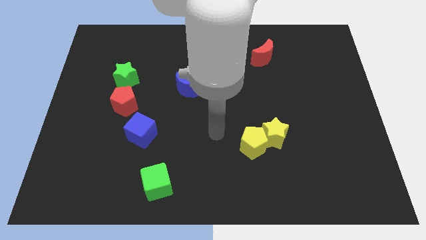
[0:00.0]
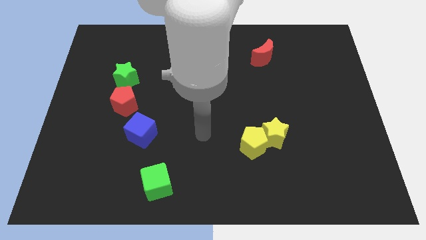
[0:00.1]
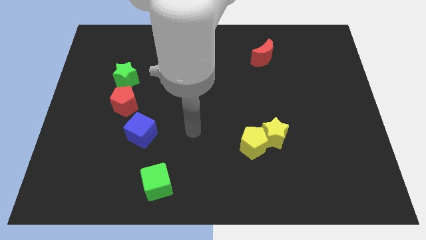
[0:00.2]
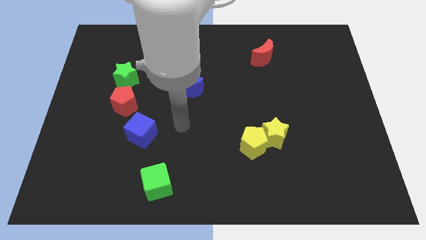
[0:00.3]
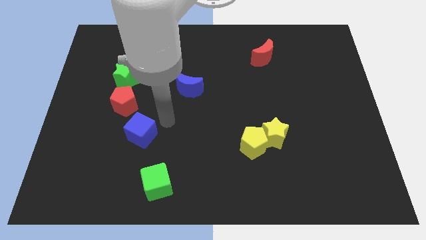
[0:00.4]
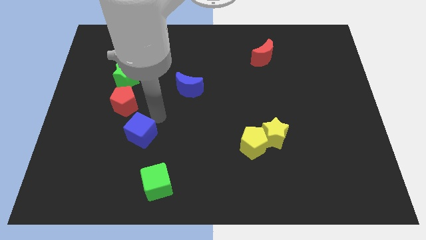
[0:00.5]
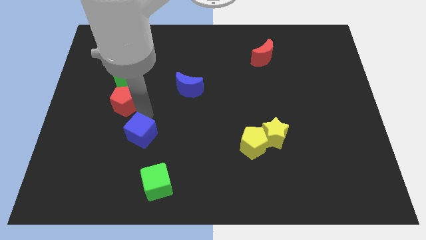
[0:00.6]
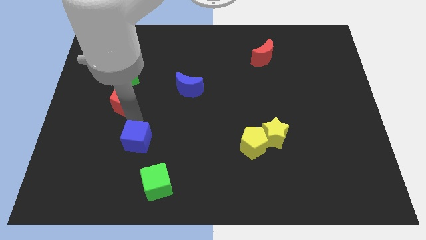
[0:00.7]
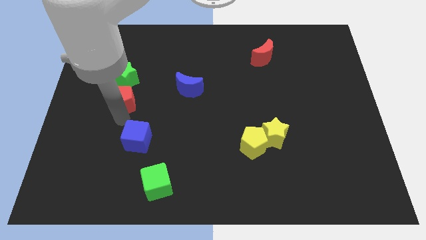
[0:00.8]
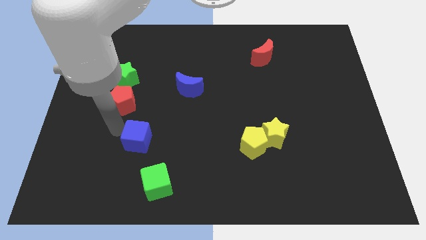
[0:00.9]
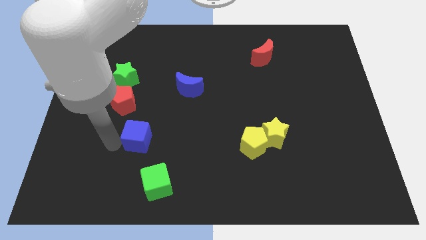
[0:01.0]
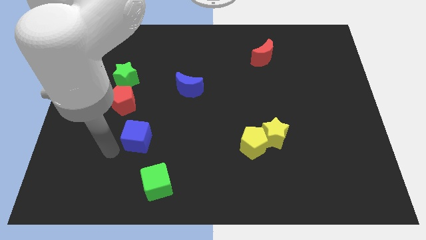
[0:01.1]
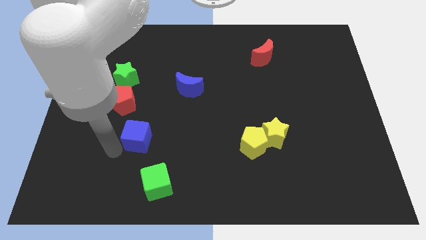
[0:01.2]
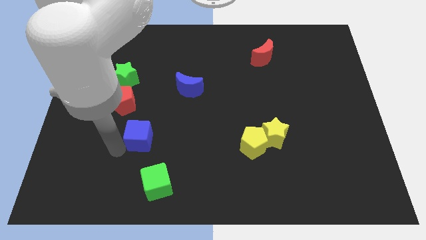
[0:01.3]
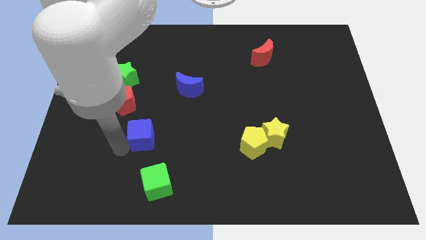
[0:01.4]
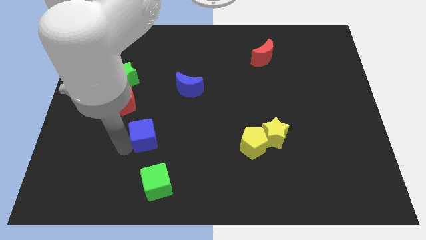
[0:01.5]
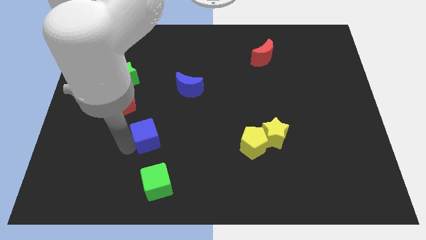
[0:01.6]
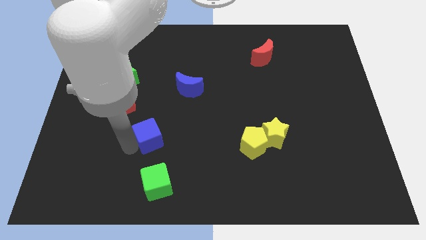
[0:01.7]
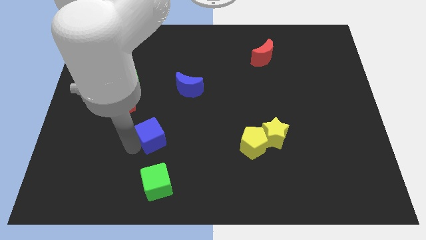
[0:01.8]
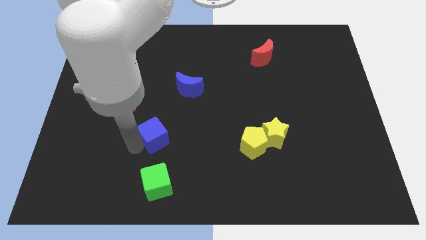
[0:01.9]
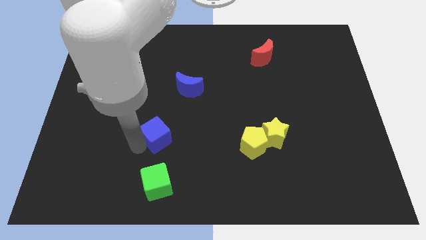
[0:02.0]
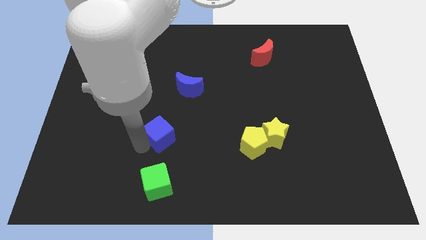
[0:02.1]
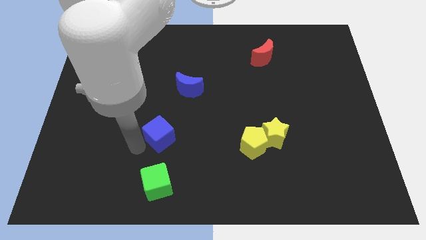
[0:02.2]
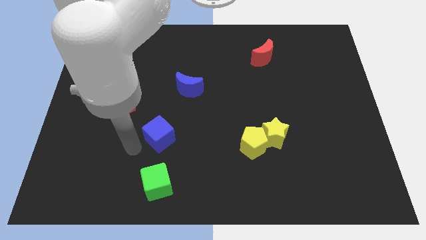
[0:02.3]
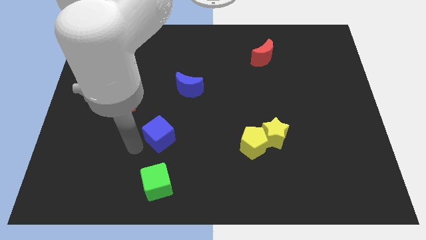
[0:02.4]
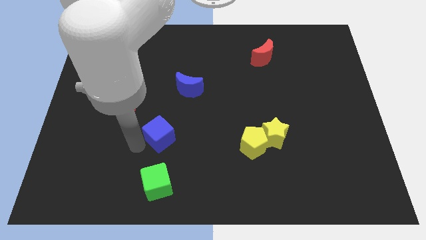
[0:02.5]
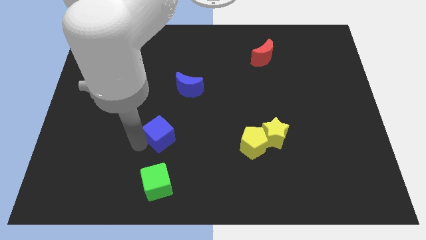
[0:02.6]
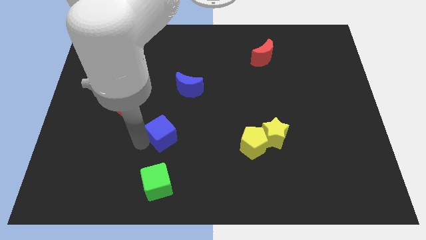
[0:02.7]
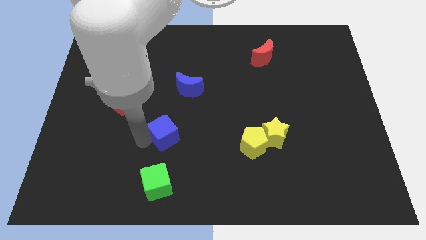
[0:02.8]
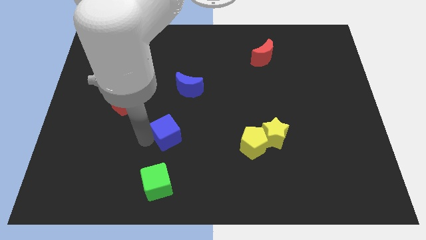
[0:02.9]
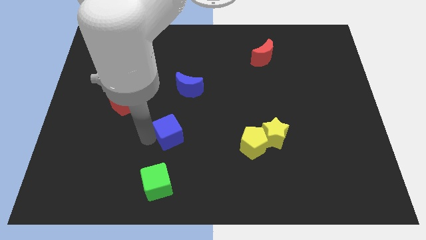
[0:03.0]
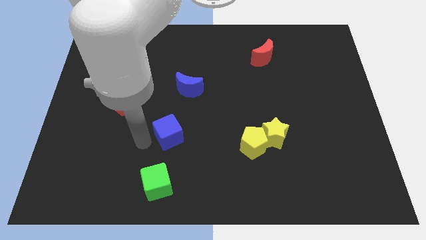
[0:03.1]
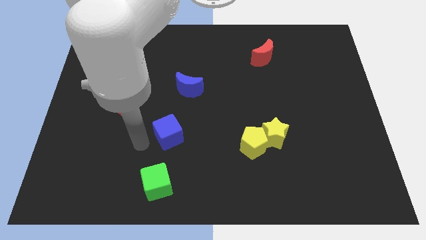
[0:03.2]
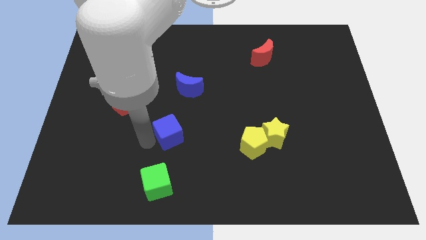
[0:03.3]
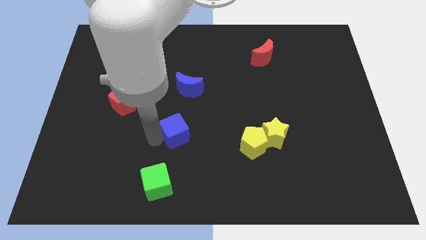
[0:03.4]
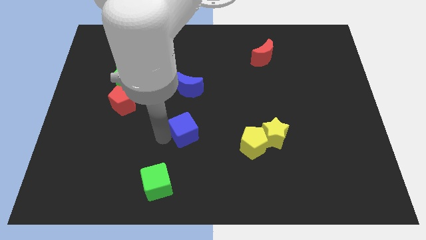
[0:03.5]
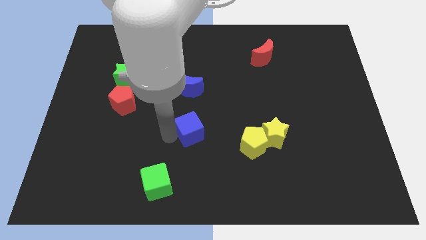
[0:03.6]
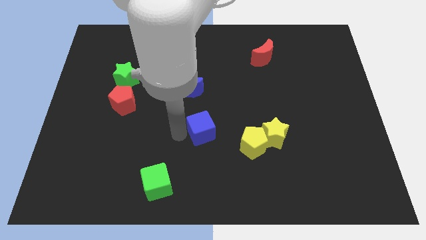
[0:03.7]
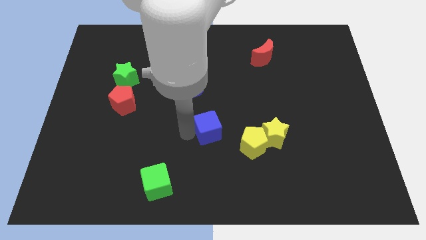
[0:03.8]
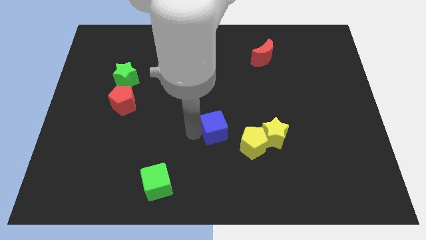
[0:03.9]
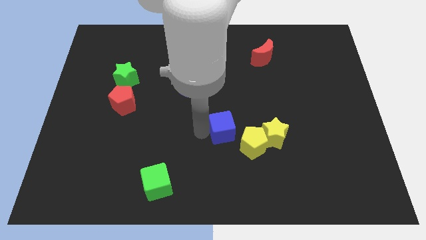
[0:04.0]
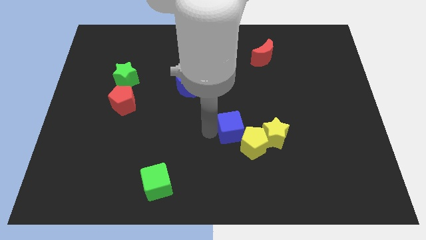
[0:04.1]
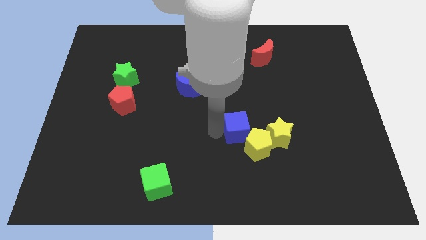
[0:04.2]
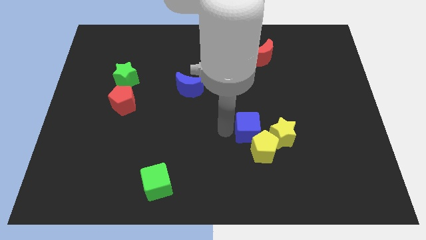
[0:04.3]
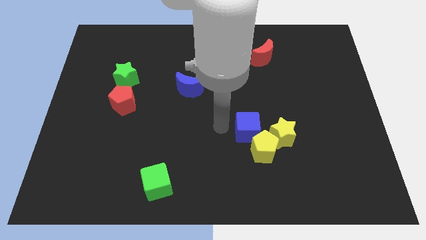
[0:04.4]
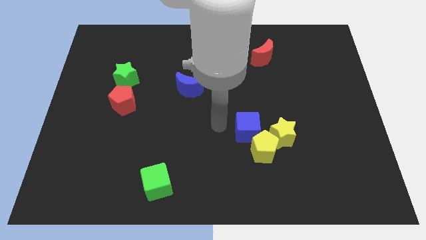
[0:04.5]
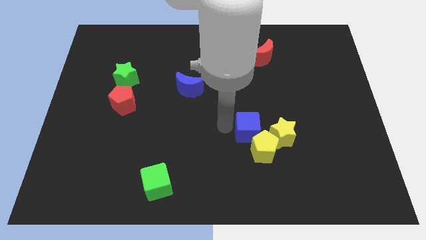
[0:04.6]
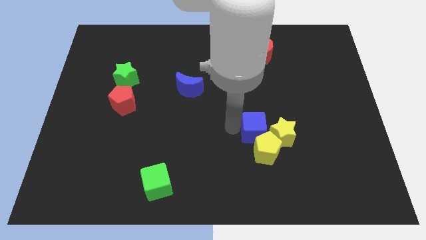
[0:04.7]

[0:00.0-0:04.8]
put the blue cube next to the yellow star

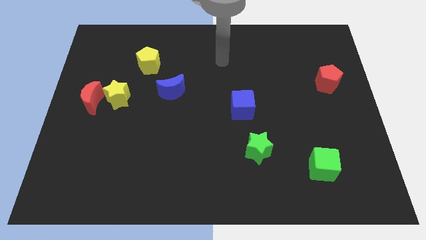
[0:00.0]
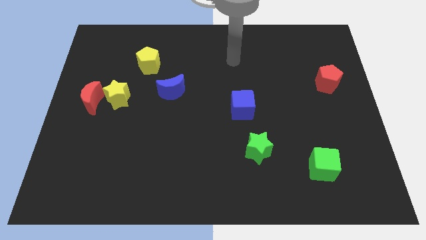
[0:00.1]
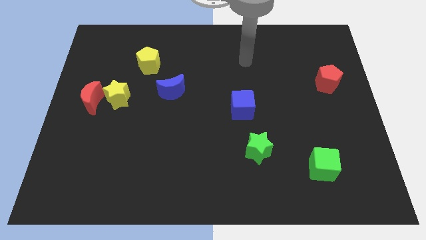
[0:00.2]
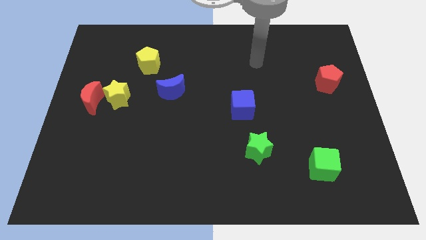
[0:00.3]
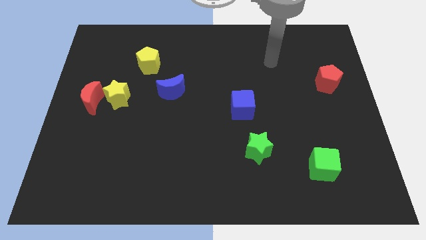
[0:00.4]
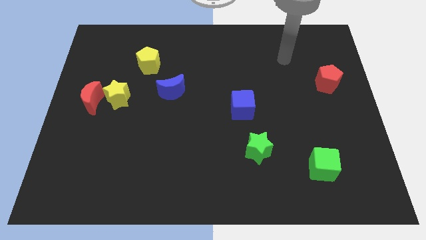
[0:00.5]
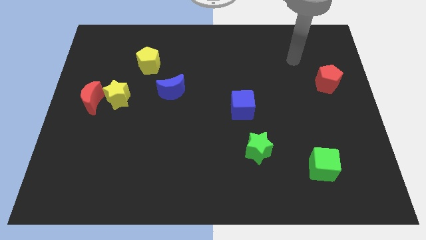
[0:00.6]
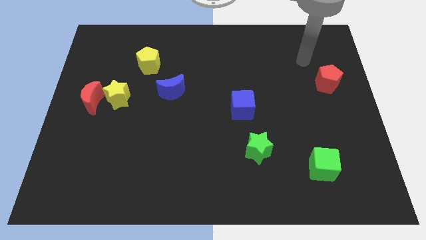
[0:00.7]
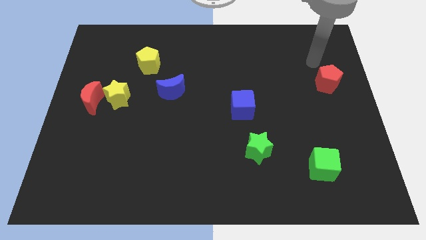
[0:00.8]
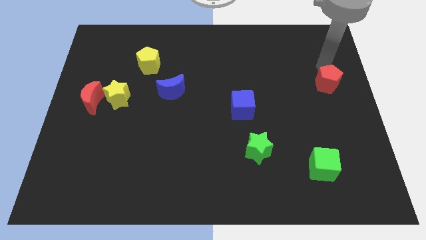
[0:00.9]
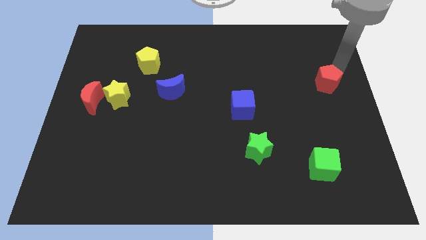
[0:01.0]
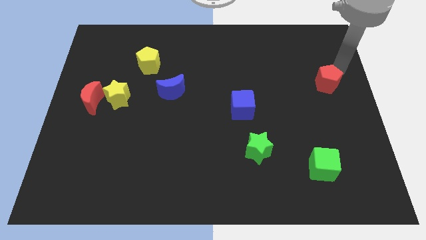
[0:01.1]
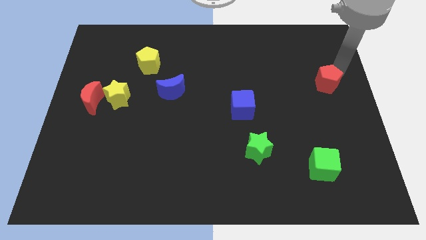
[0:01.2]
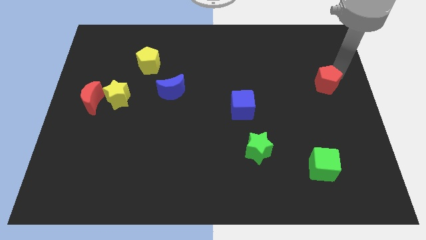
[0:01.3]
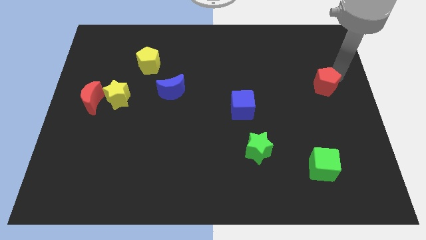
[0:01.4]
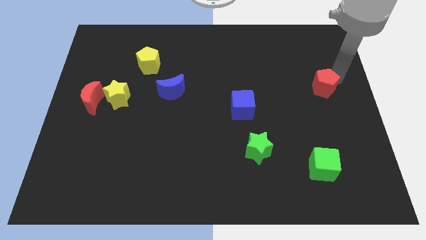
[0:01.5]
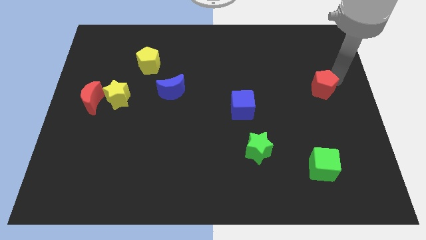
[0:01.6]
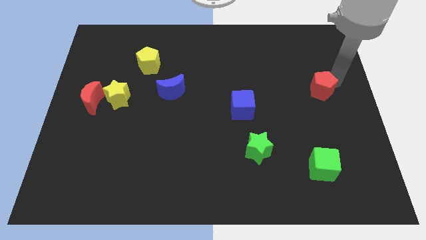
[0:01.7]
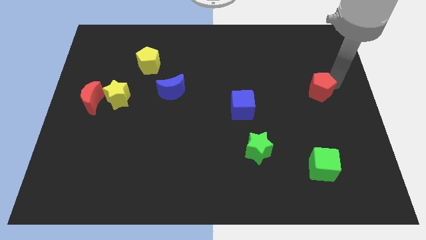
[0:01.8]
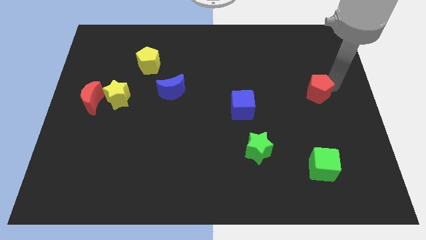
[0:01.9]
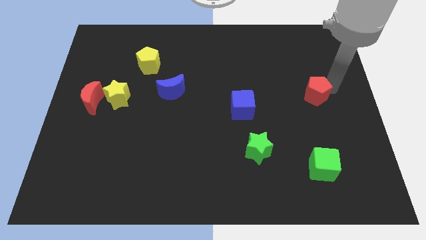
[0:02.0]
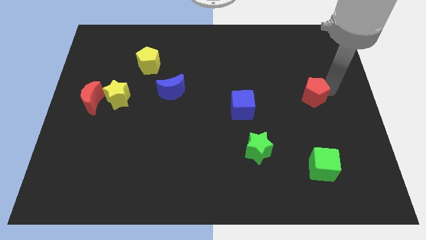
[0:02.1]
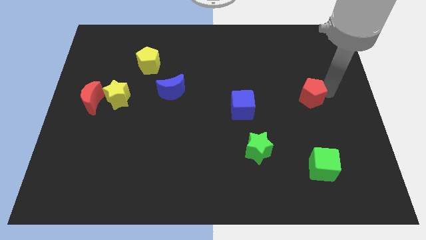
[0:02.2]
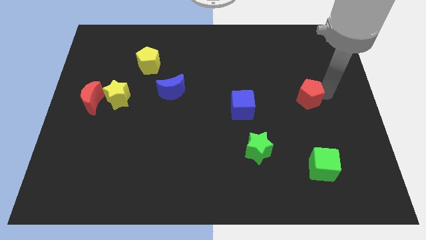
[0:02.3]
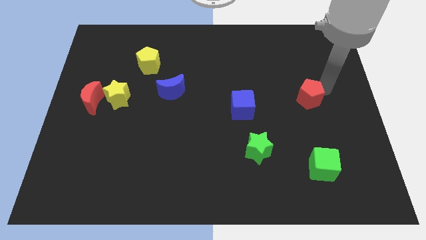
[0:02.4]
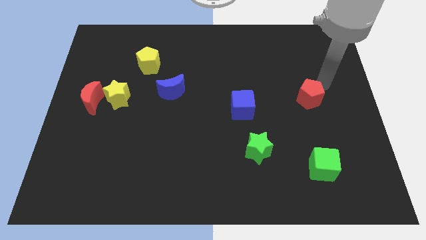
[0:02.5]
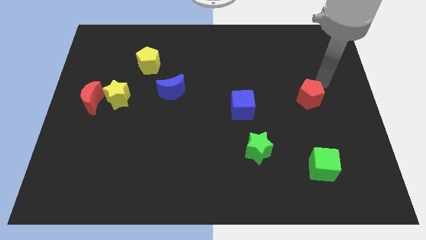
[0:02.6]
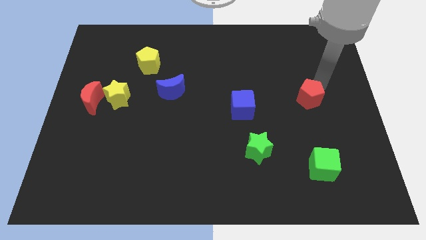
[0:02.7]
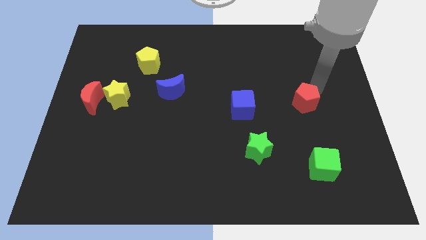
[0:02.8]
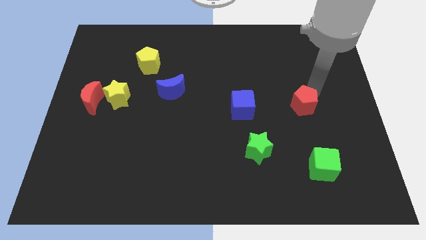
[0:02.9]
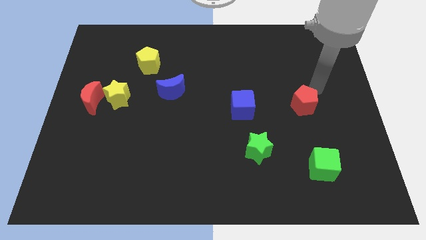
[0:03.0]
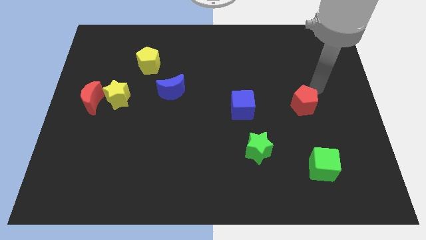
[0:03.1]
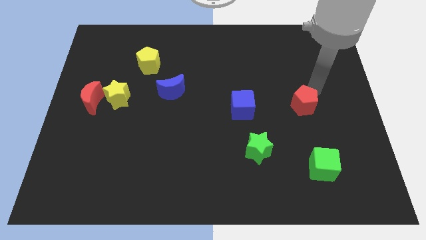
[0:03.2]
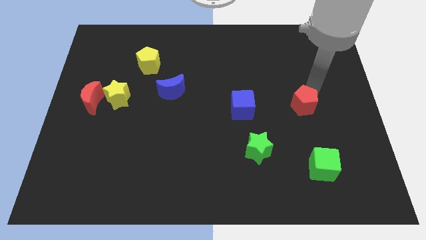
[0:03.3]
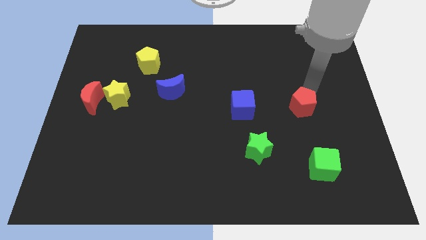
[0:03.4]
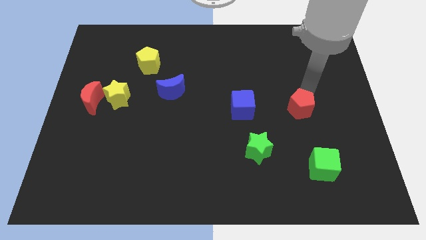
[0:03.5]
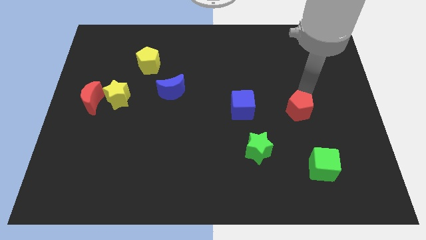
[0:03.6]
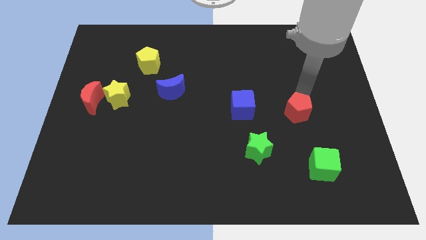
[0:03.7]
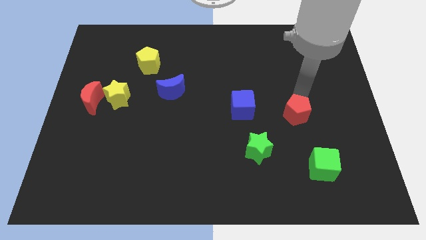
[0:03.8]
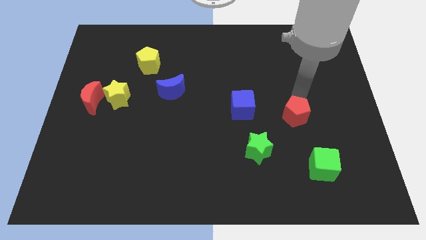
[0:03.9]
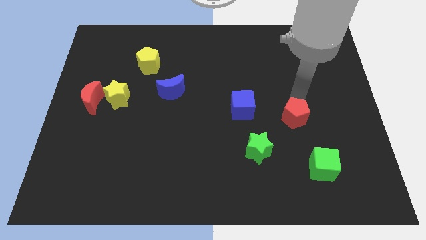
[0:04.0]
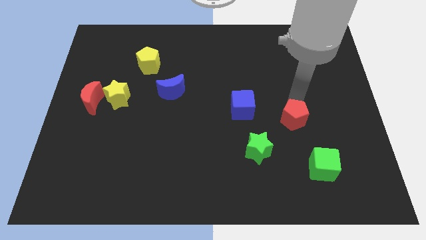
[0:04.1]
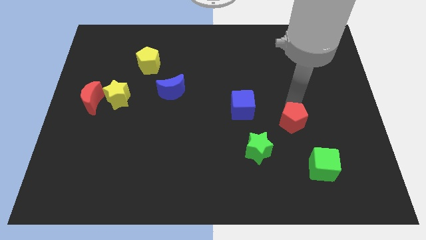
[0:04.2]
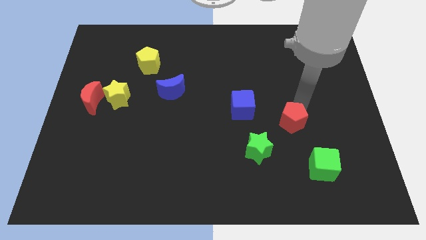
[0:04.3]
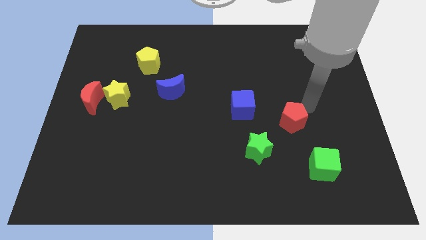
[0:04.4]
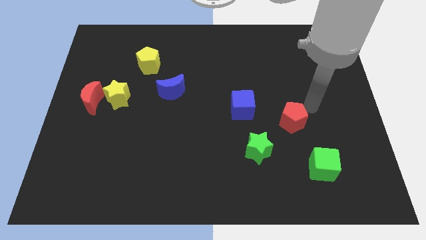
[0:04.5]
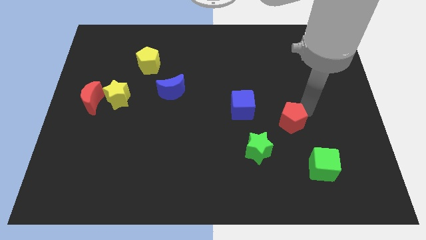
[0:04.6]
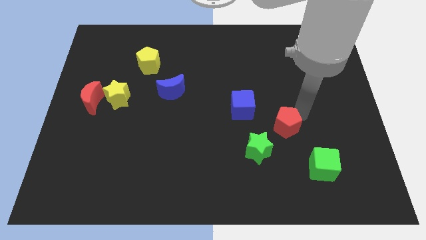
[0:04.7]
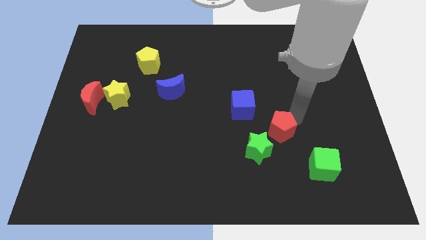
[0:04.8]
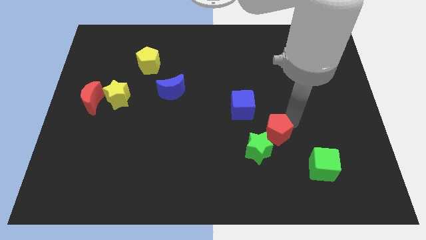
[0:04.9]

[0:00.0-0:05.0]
put the red pentagon close to the green star
